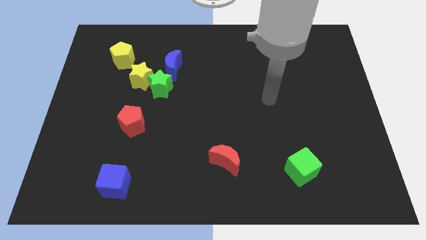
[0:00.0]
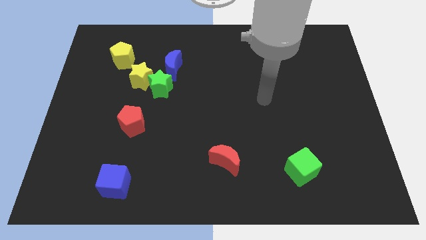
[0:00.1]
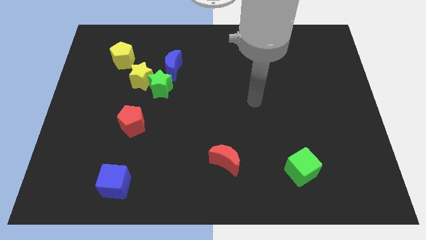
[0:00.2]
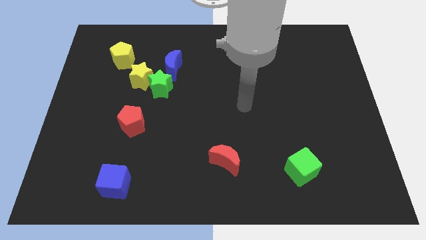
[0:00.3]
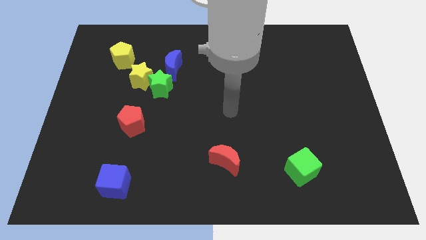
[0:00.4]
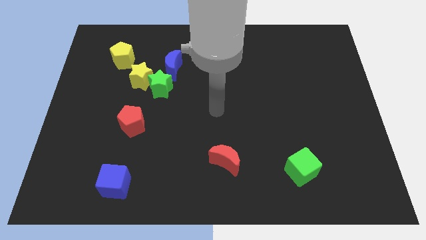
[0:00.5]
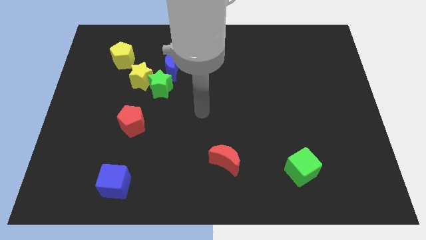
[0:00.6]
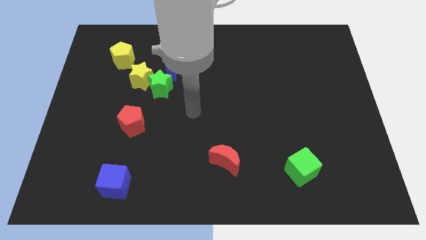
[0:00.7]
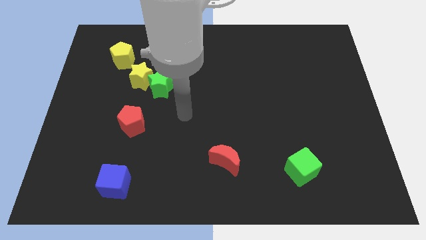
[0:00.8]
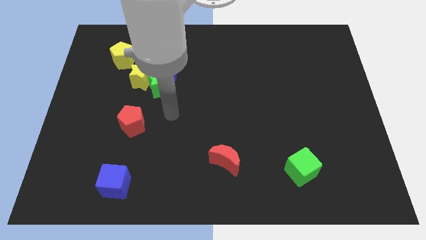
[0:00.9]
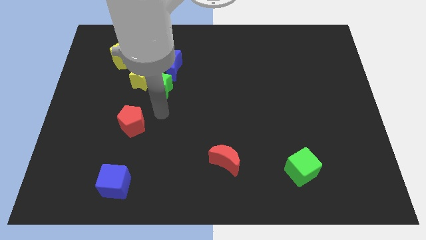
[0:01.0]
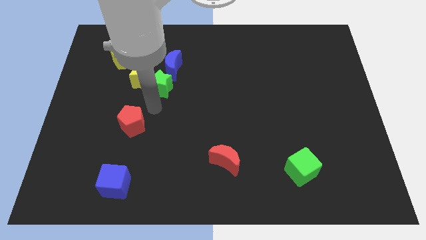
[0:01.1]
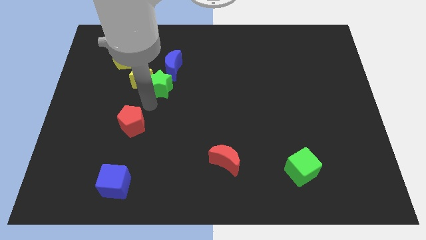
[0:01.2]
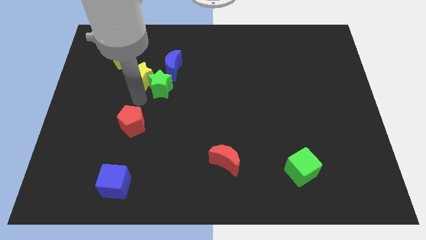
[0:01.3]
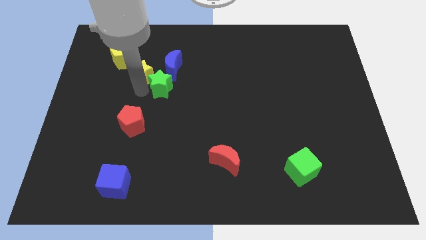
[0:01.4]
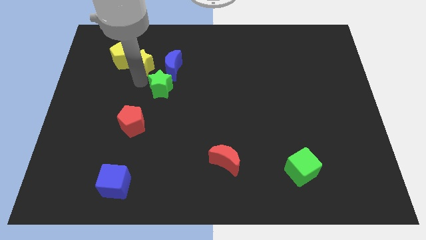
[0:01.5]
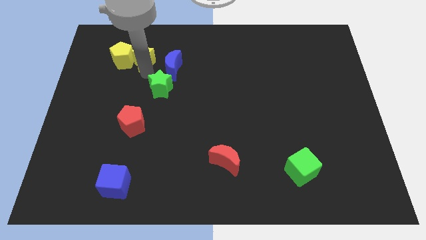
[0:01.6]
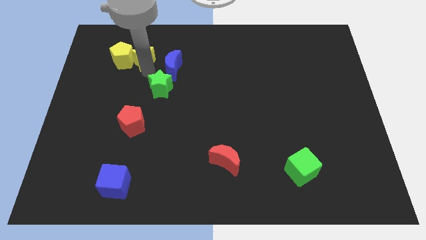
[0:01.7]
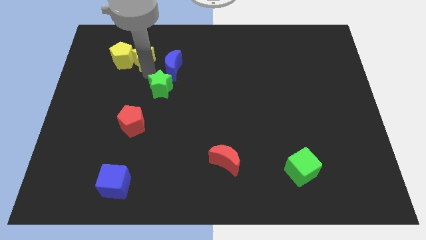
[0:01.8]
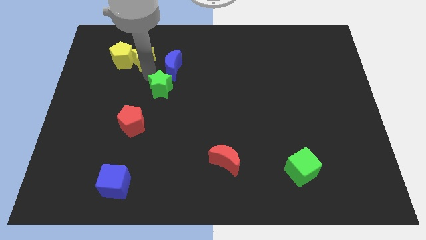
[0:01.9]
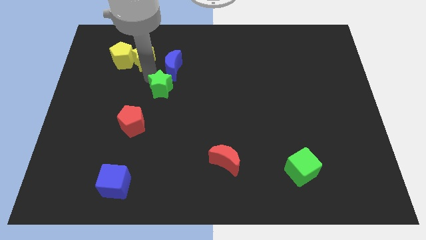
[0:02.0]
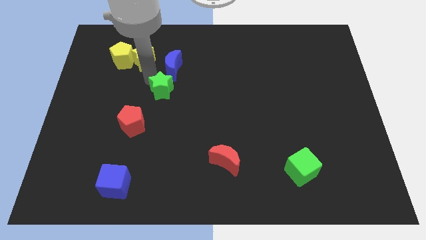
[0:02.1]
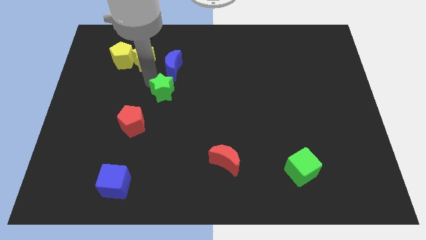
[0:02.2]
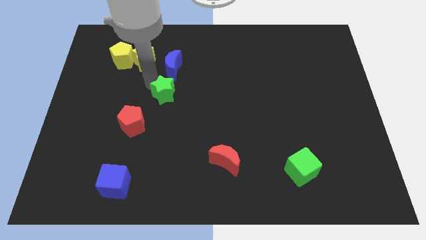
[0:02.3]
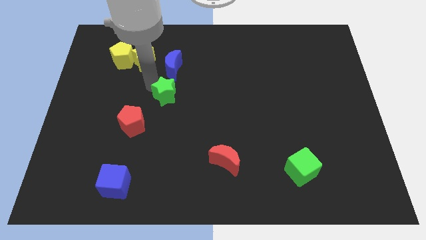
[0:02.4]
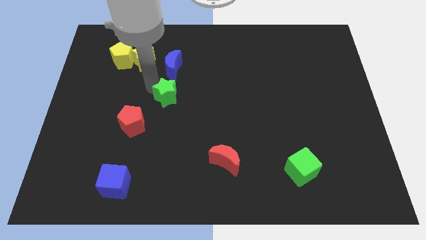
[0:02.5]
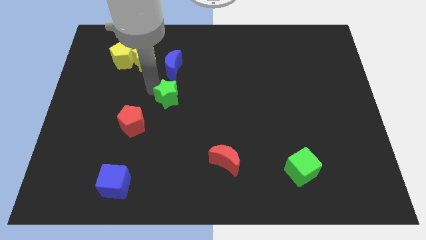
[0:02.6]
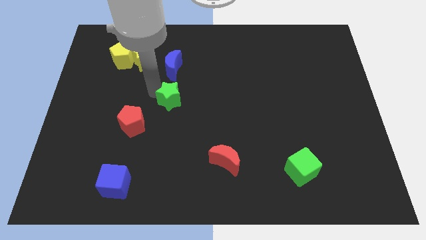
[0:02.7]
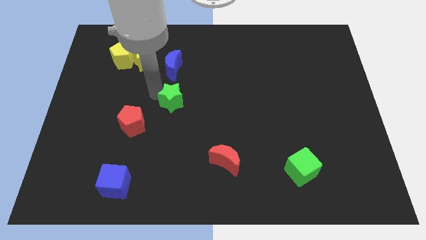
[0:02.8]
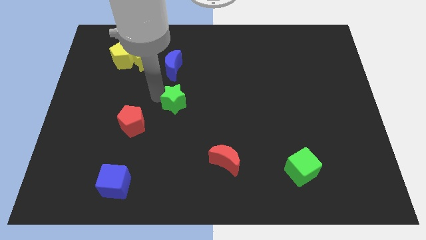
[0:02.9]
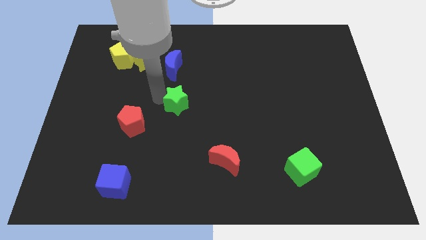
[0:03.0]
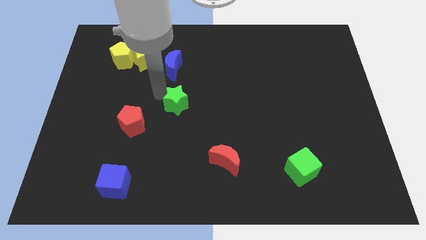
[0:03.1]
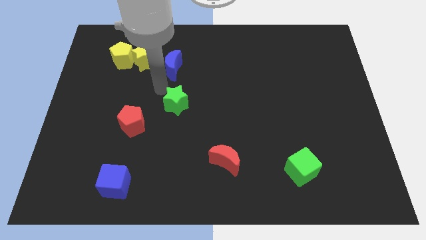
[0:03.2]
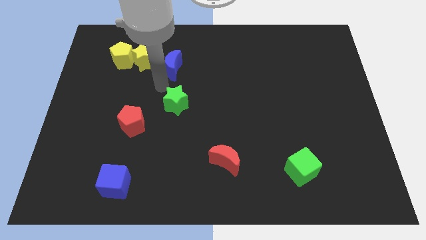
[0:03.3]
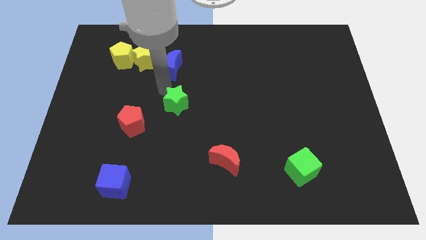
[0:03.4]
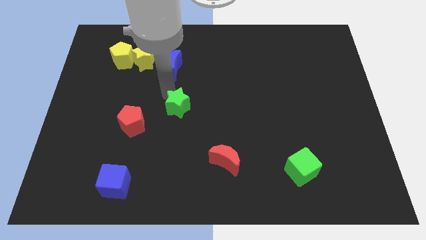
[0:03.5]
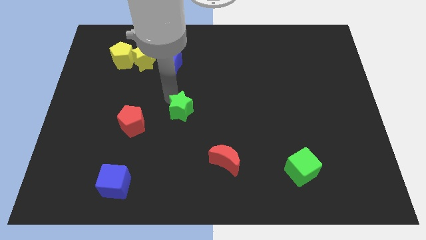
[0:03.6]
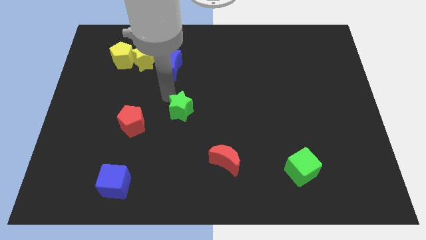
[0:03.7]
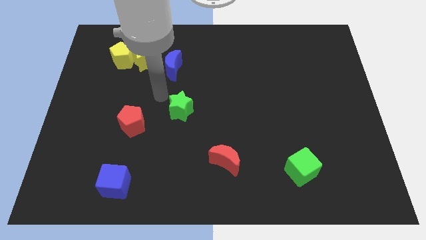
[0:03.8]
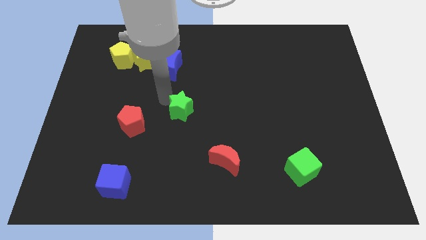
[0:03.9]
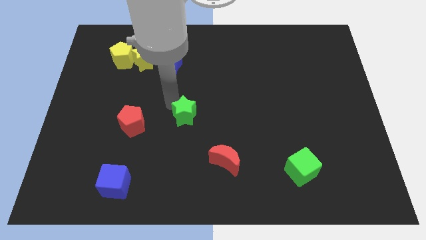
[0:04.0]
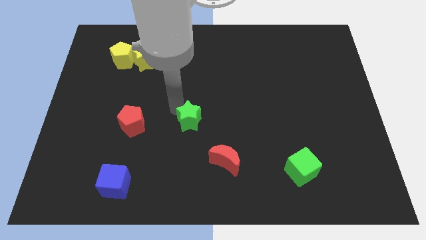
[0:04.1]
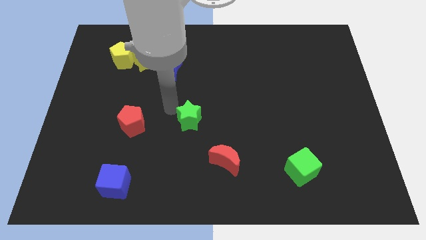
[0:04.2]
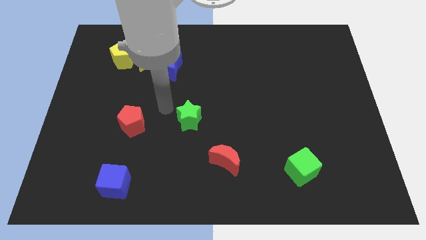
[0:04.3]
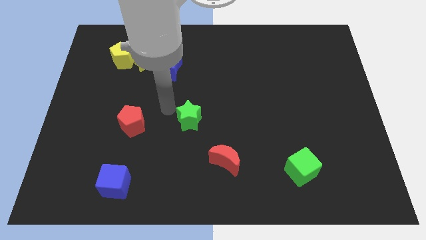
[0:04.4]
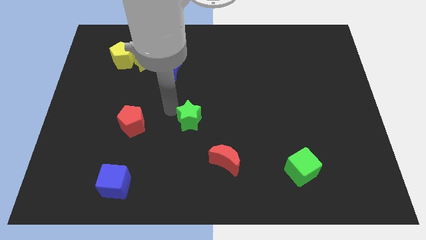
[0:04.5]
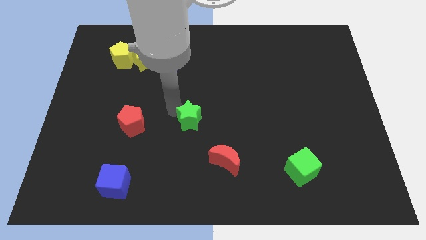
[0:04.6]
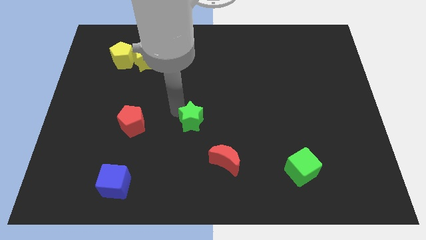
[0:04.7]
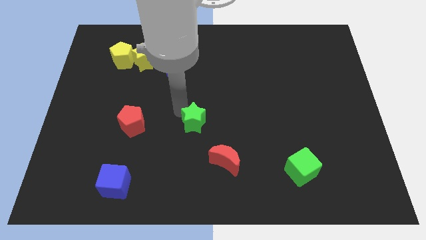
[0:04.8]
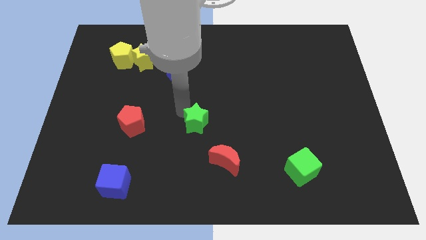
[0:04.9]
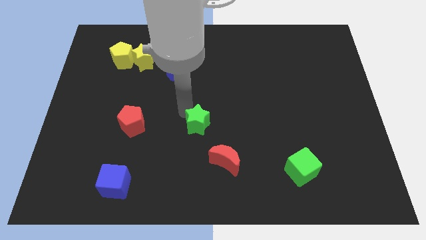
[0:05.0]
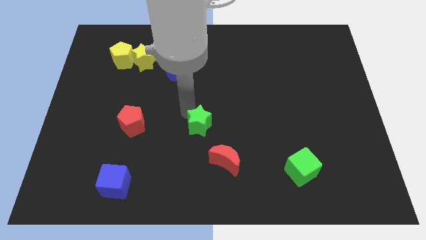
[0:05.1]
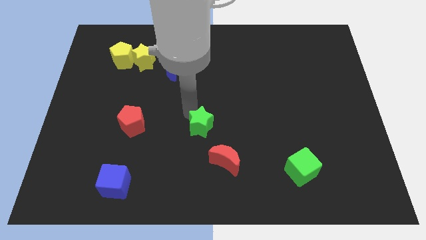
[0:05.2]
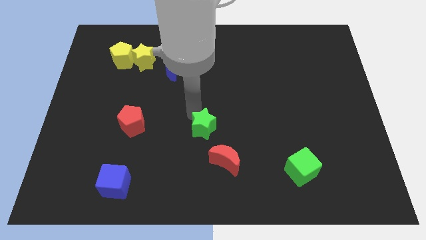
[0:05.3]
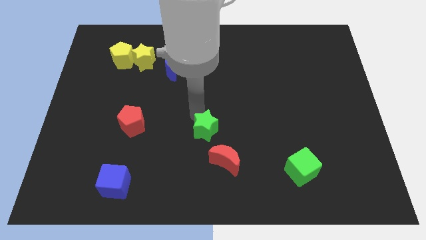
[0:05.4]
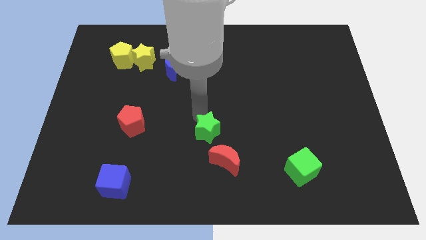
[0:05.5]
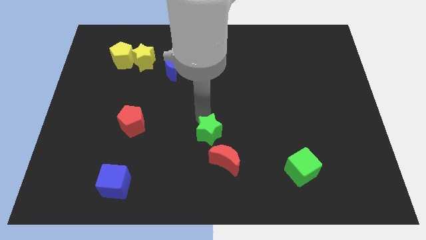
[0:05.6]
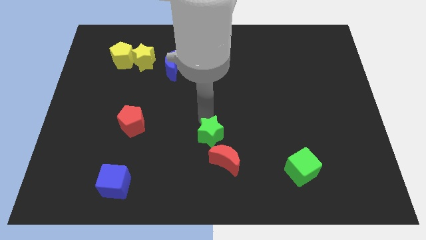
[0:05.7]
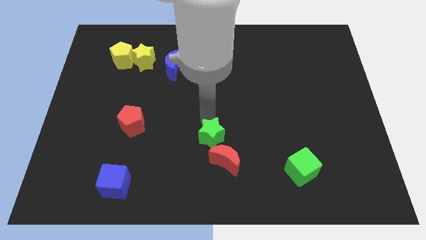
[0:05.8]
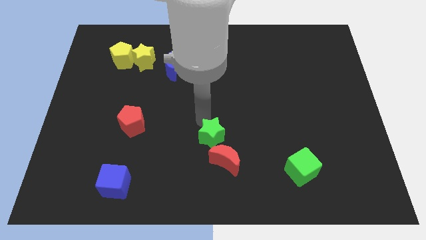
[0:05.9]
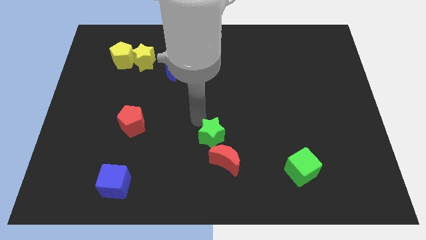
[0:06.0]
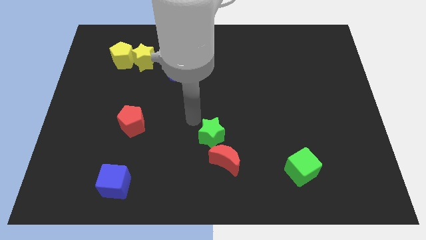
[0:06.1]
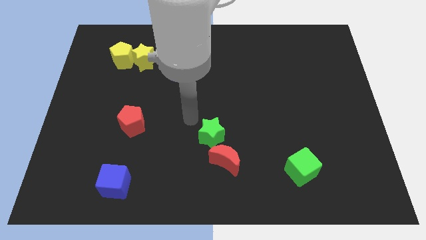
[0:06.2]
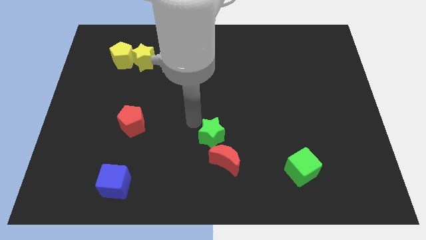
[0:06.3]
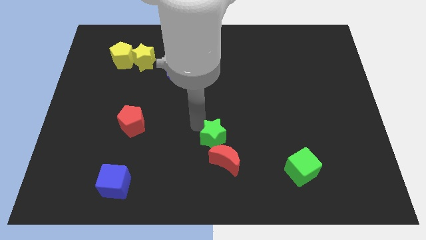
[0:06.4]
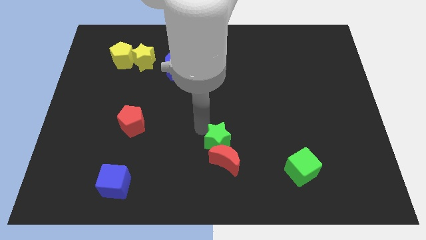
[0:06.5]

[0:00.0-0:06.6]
push the green star close to the red moon

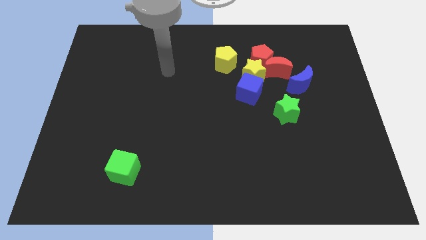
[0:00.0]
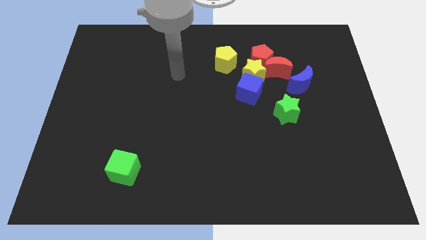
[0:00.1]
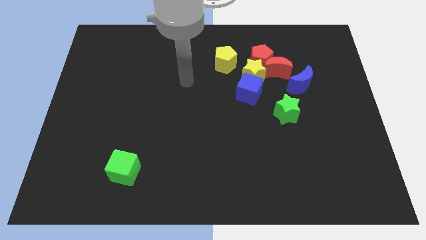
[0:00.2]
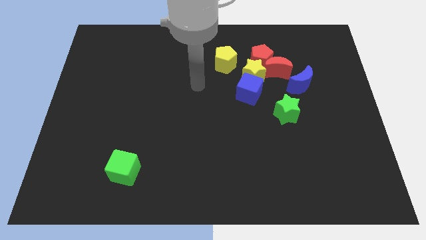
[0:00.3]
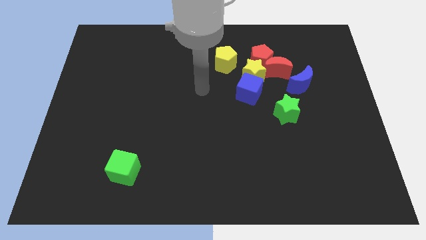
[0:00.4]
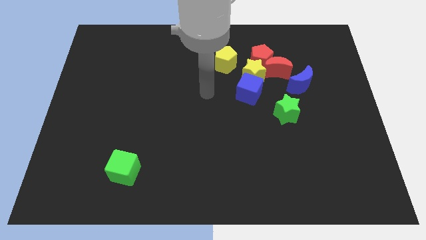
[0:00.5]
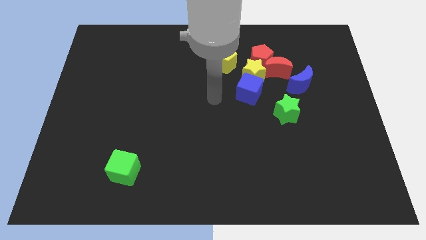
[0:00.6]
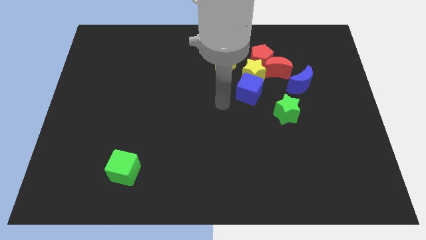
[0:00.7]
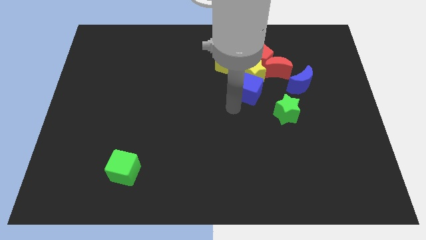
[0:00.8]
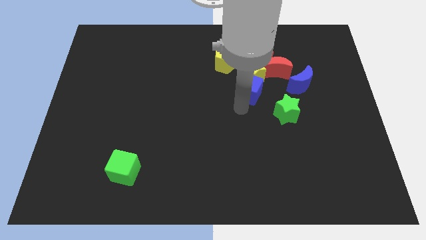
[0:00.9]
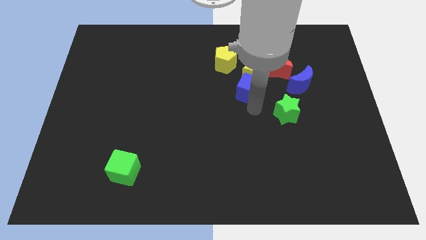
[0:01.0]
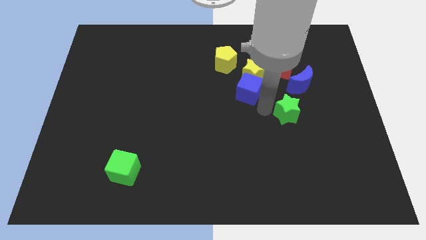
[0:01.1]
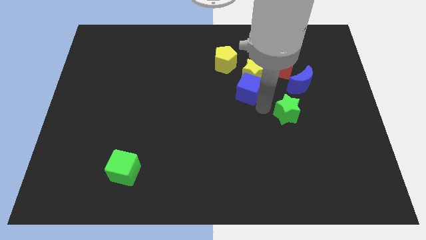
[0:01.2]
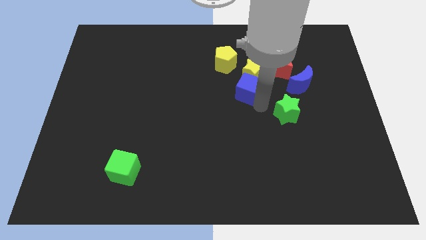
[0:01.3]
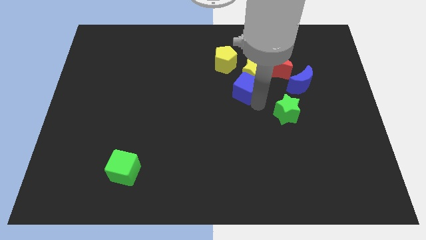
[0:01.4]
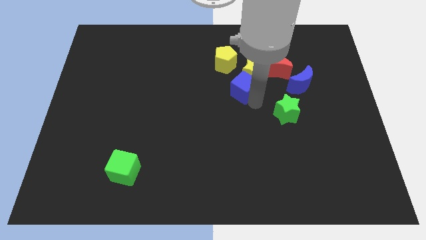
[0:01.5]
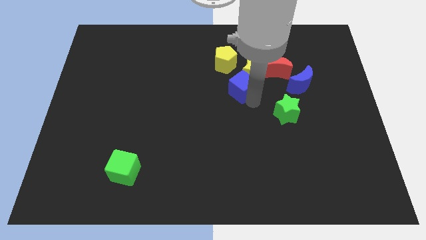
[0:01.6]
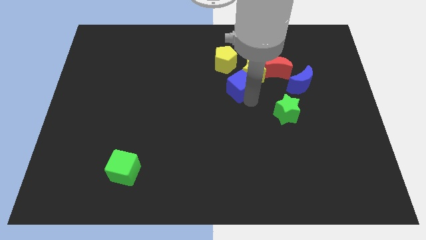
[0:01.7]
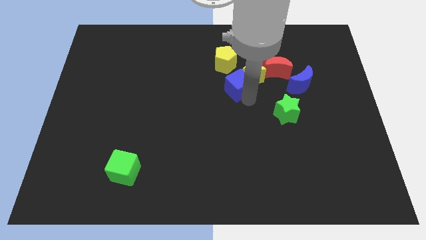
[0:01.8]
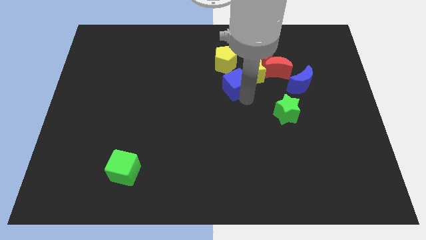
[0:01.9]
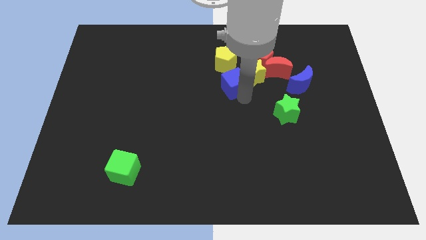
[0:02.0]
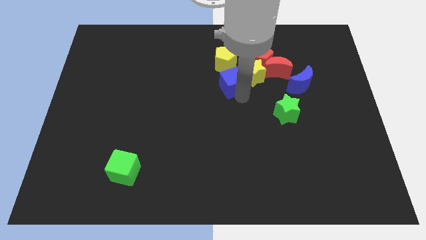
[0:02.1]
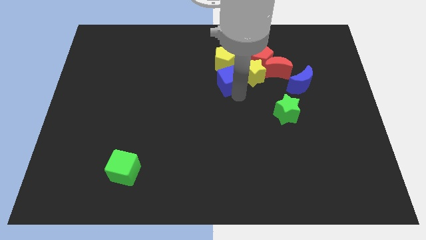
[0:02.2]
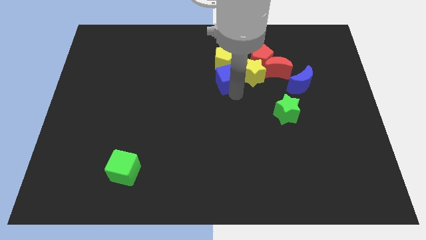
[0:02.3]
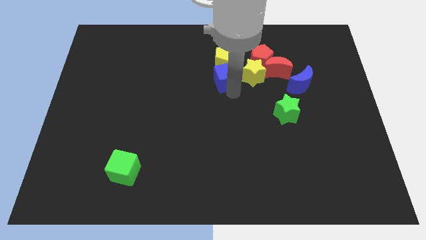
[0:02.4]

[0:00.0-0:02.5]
put the blue cube towards the yellow pentagon
